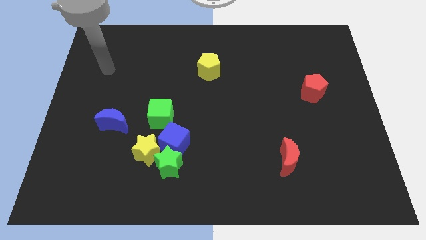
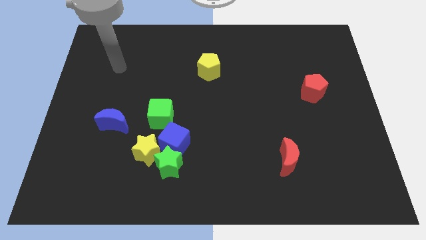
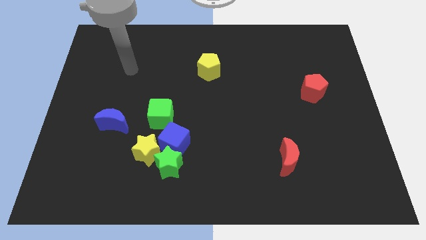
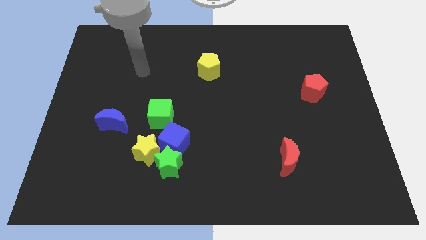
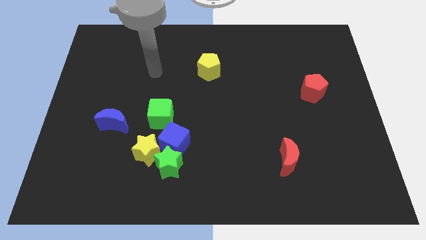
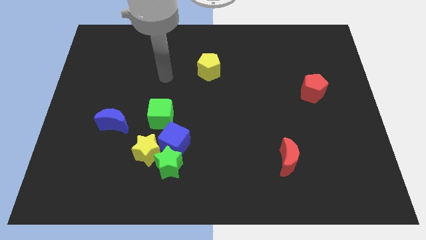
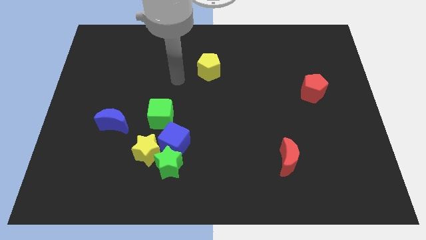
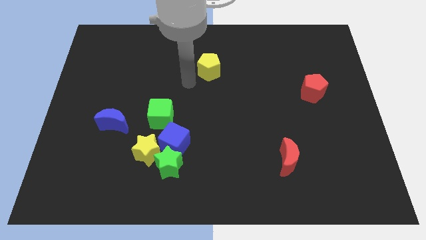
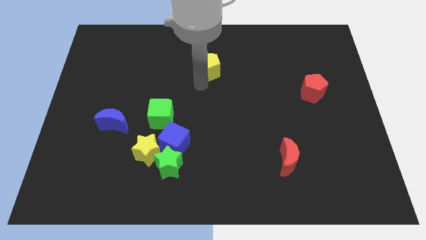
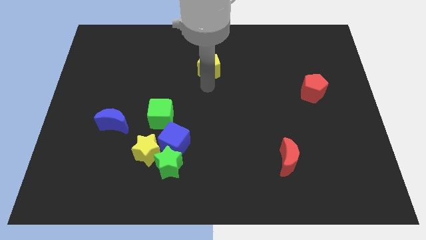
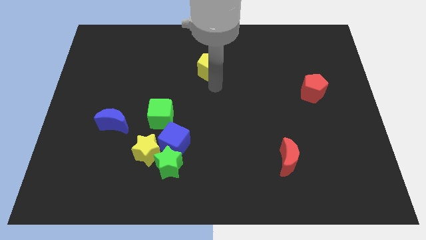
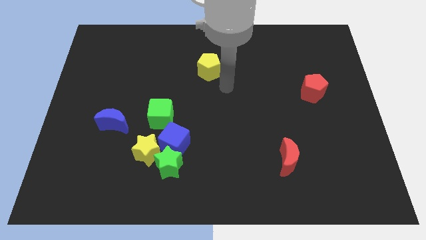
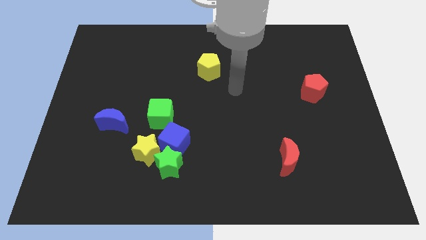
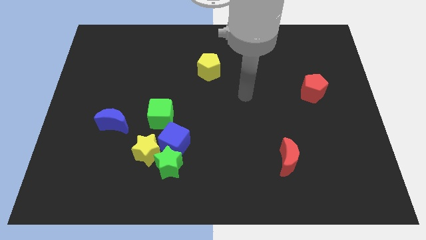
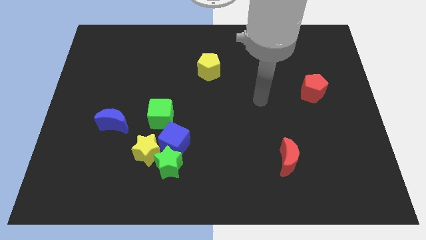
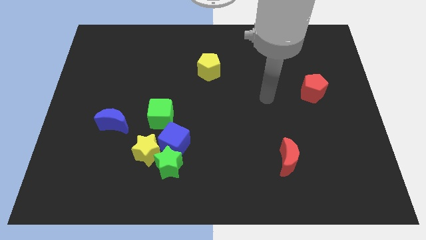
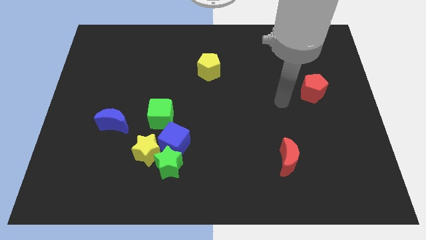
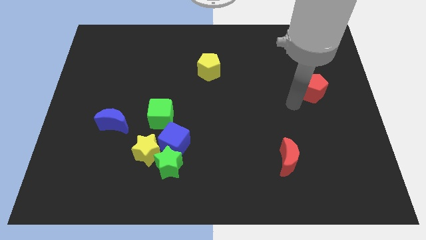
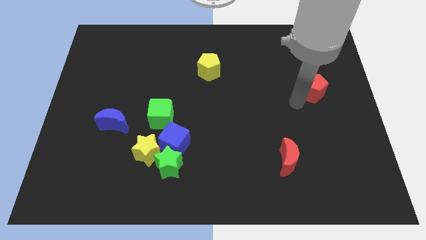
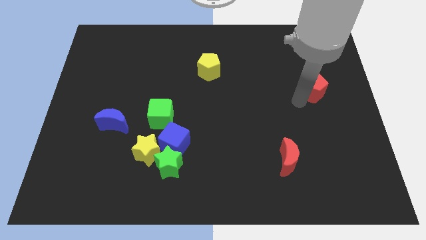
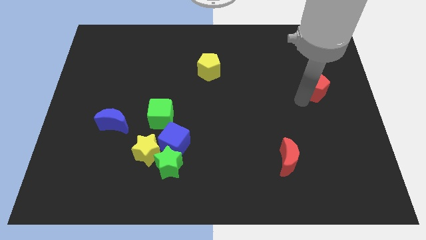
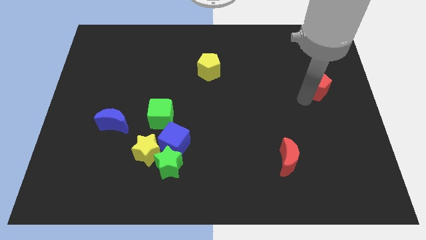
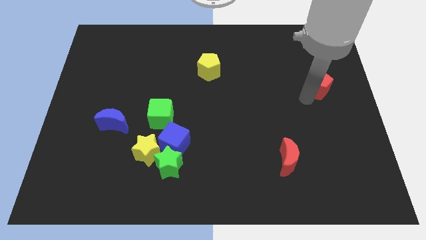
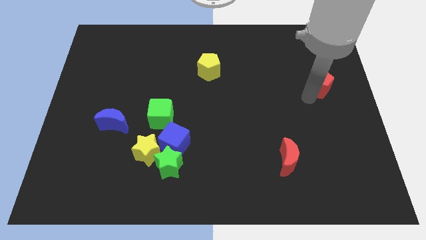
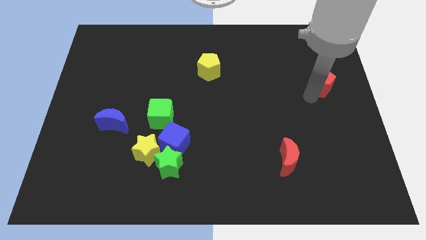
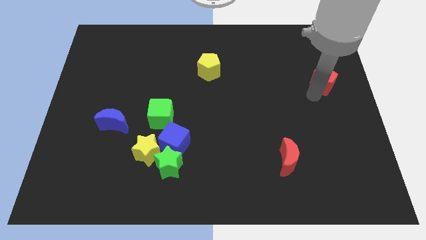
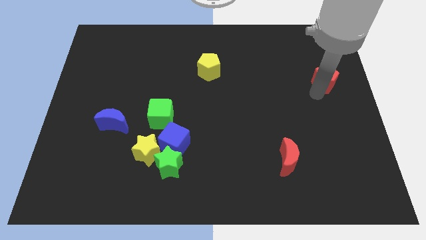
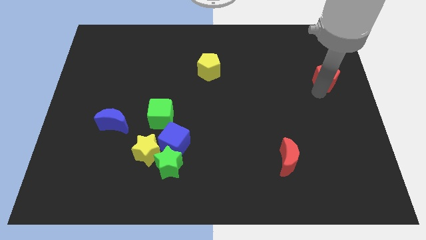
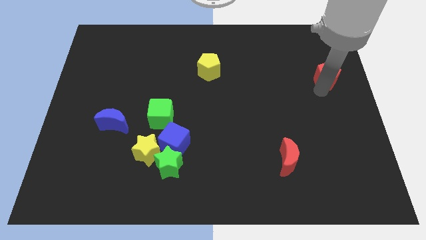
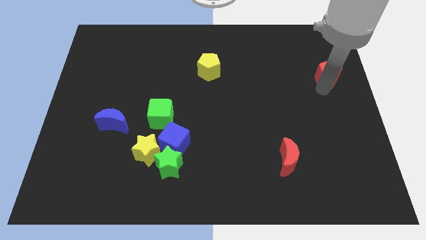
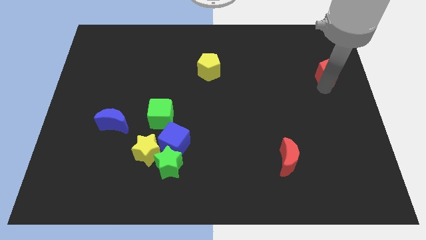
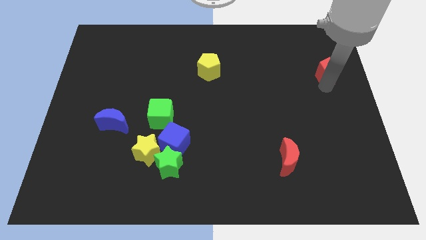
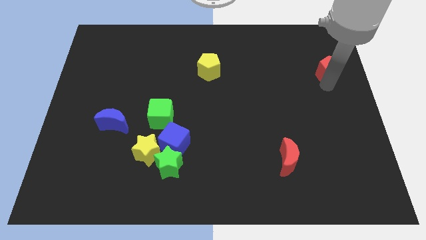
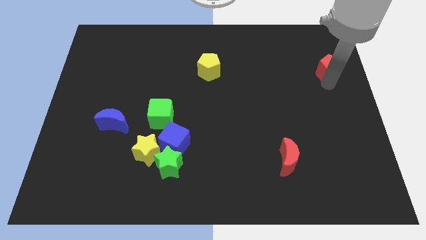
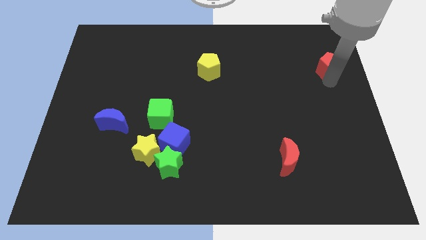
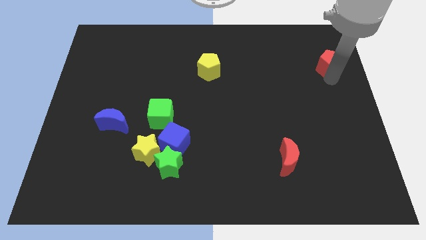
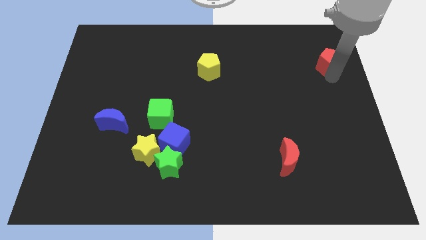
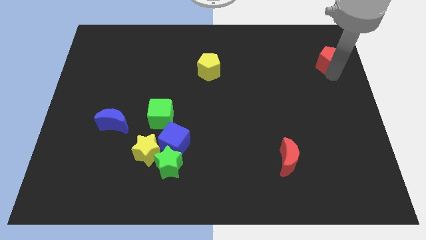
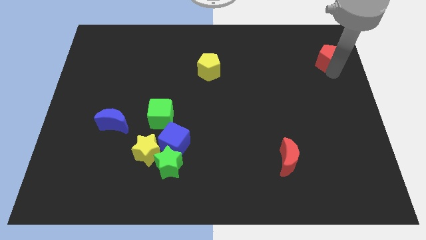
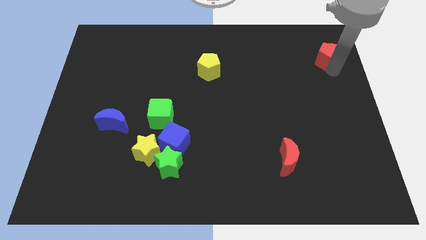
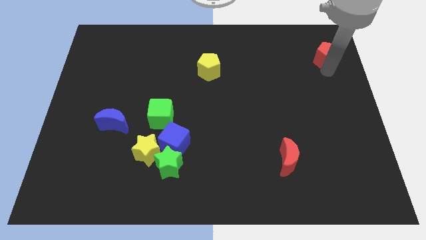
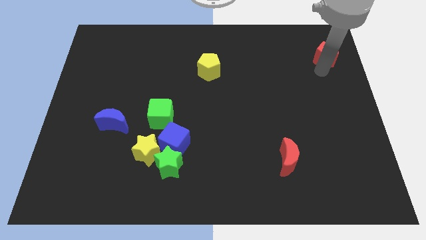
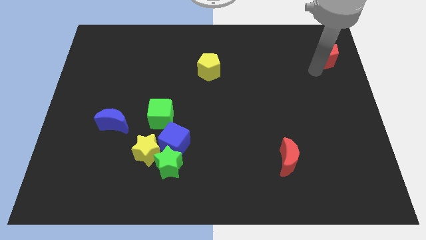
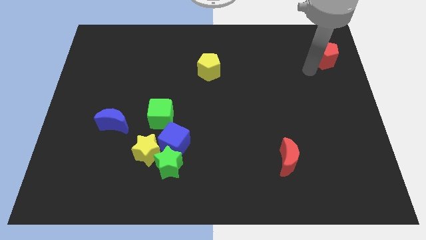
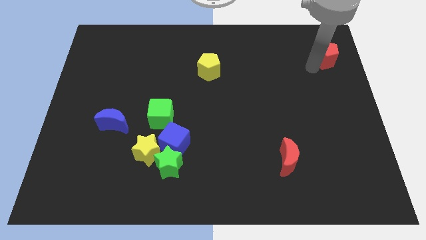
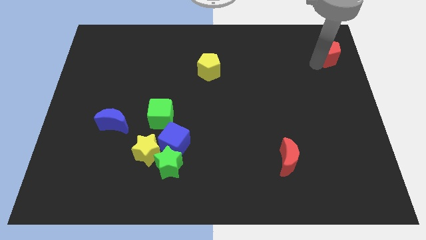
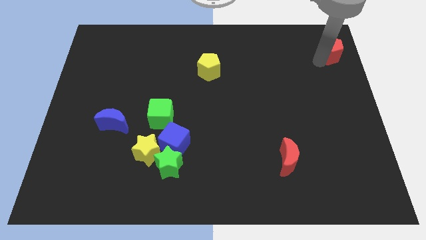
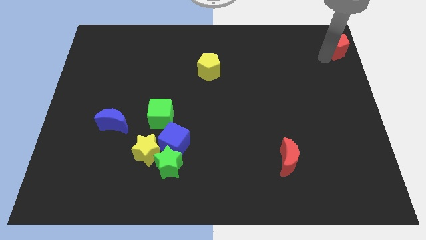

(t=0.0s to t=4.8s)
slide the red pentagon to the top right corner

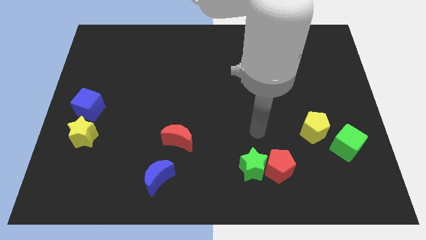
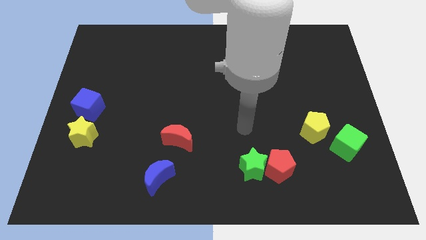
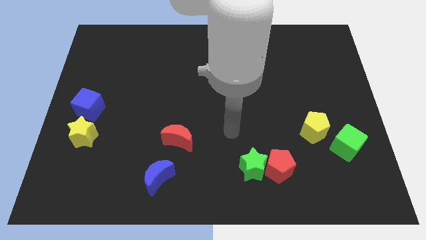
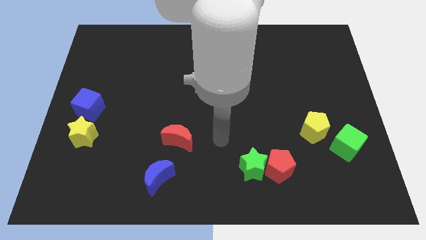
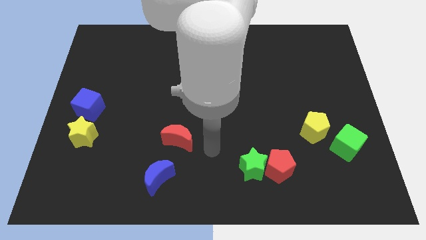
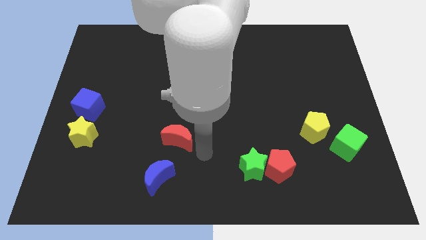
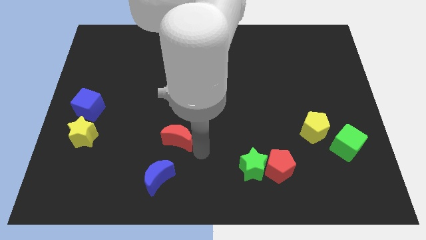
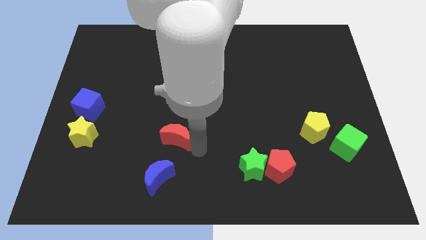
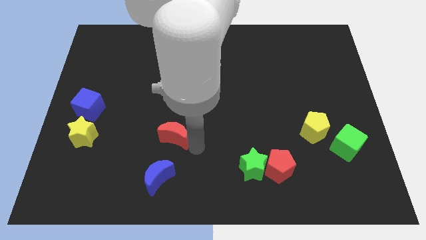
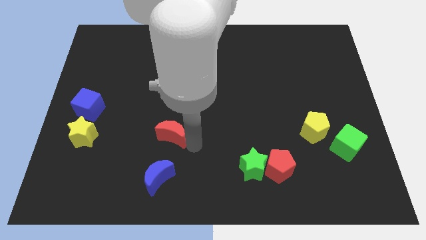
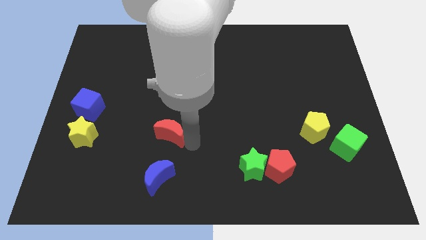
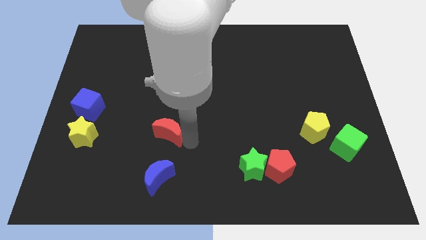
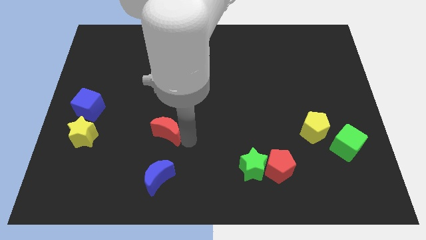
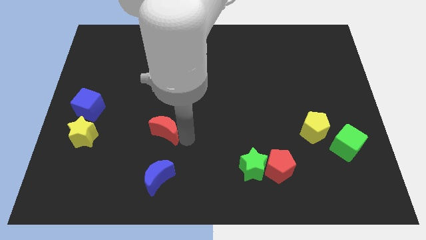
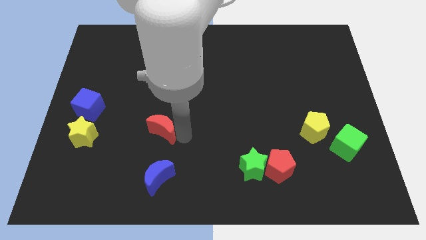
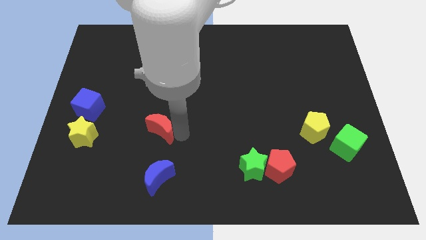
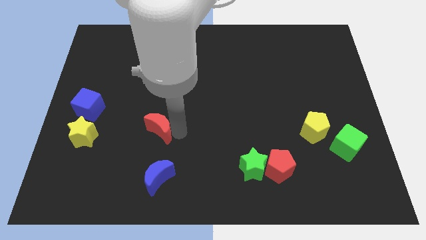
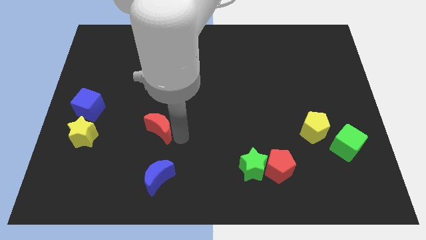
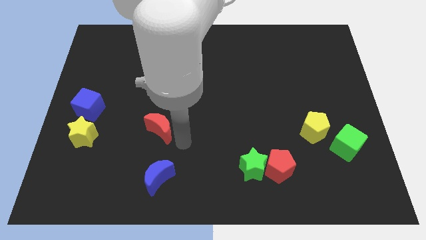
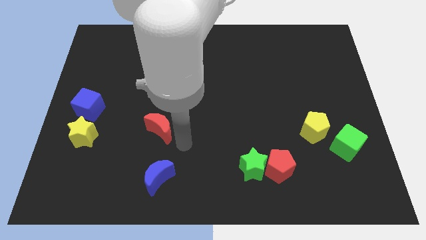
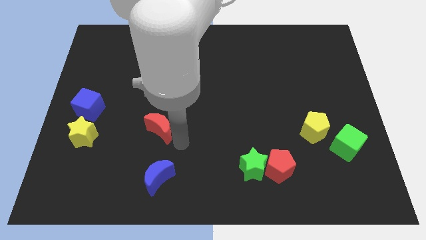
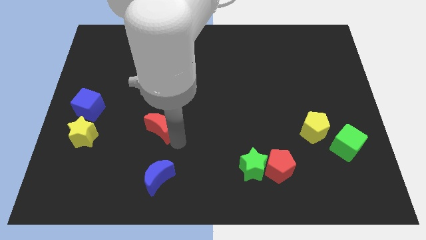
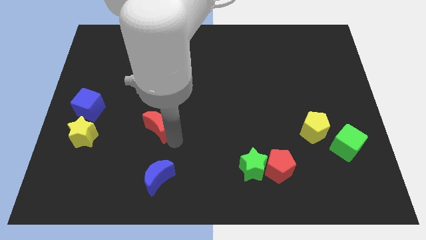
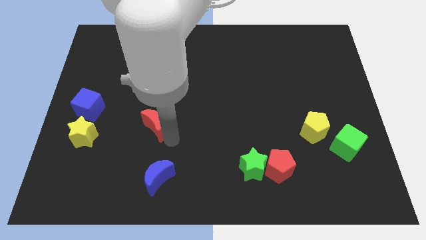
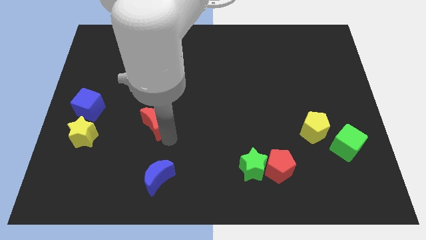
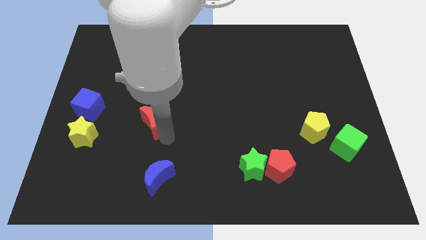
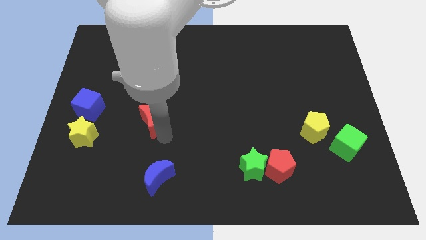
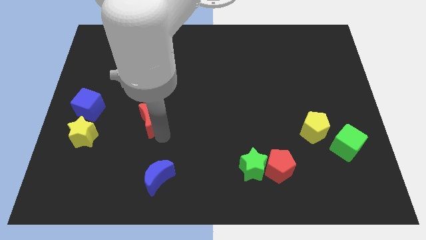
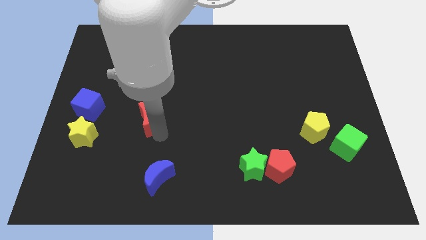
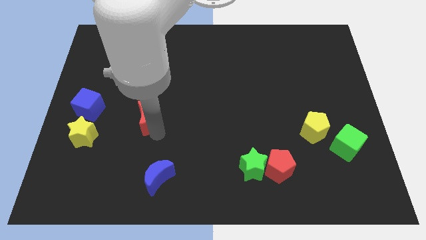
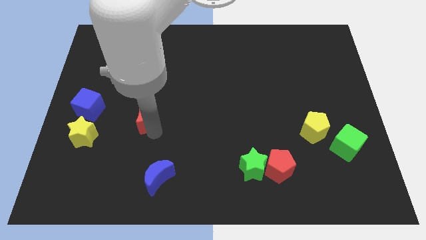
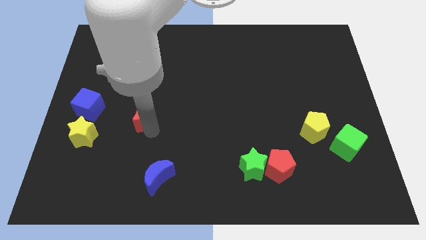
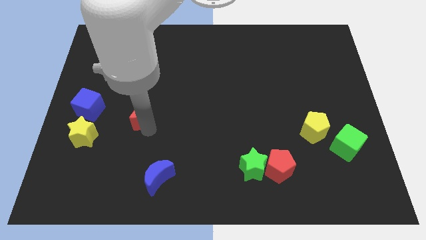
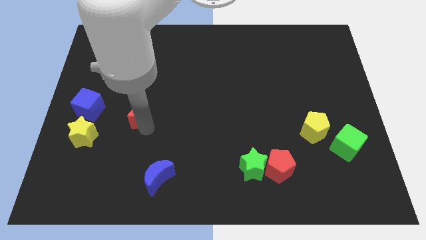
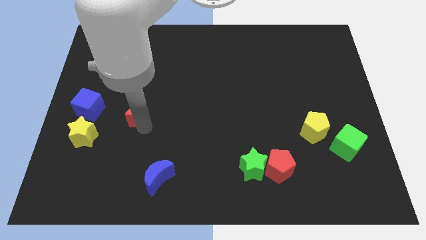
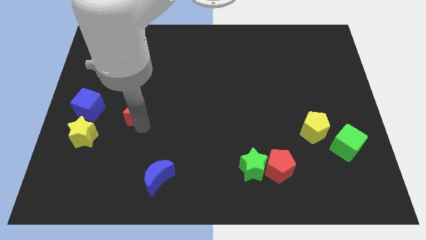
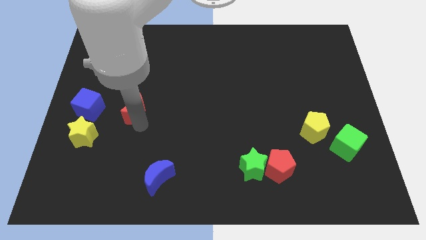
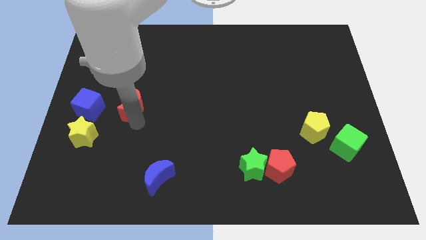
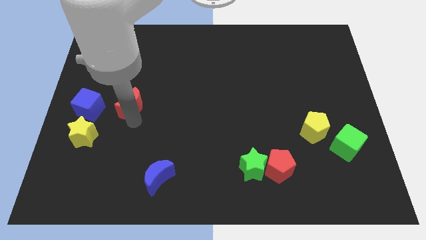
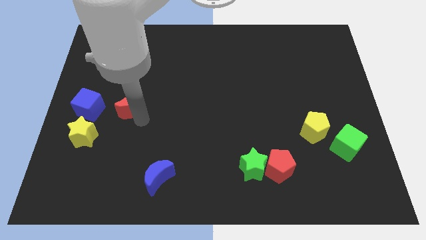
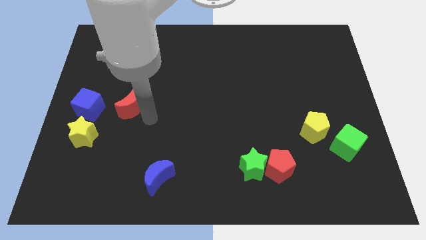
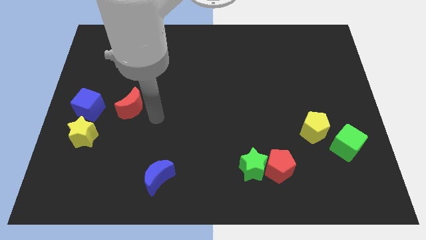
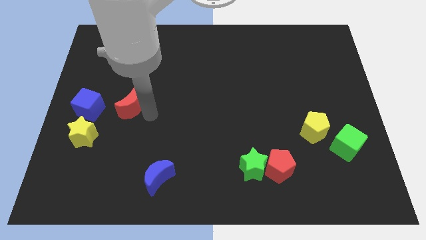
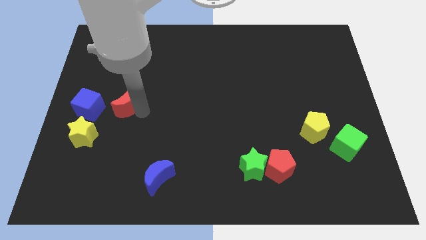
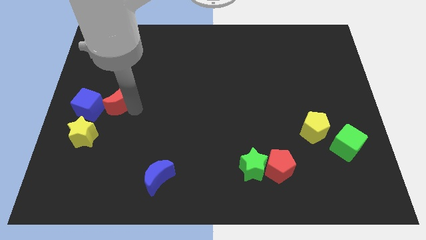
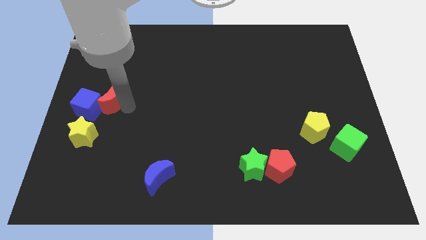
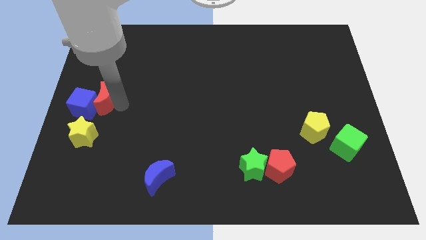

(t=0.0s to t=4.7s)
move the red moon to the left side of the board
